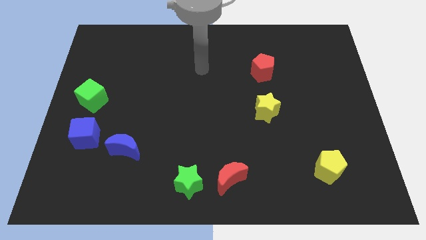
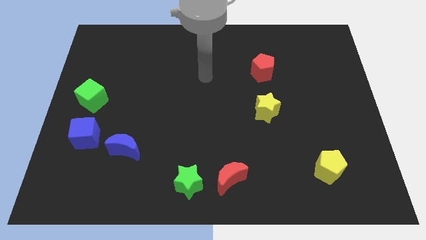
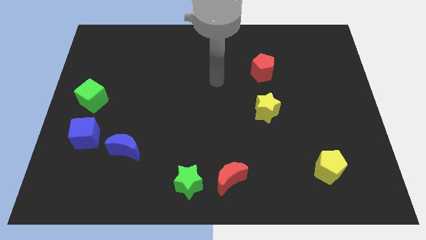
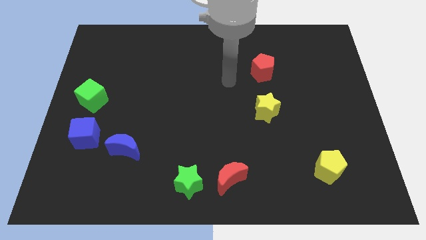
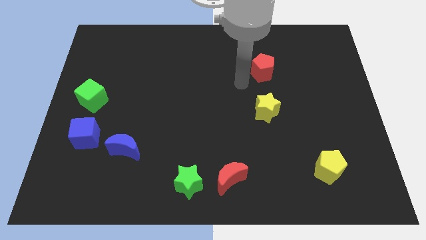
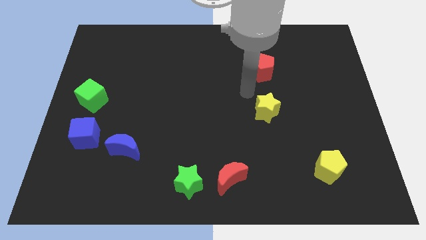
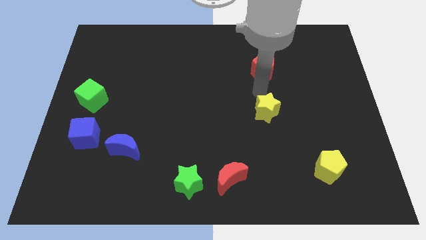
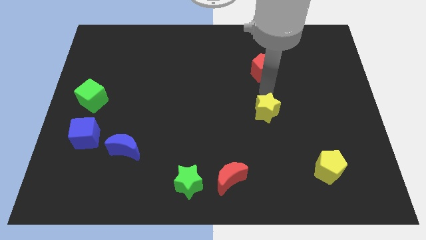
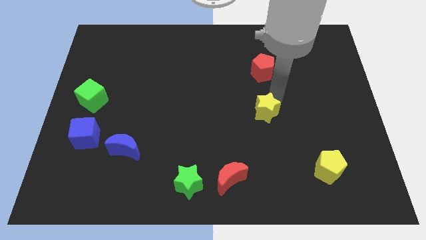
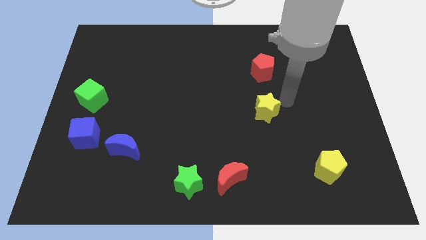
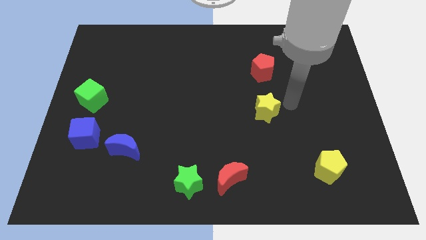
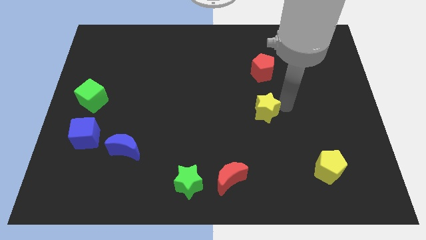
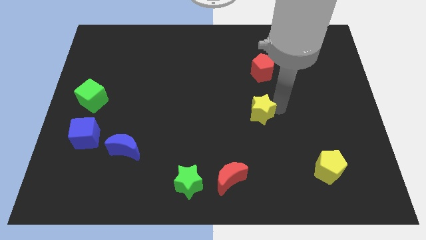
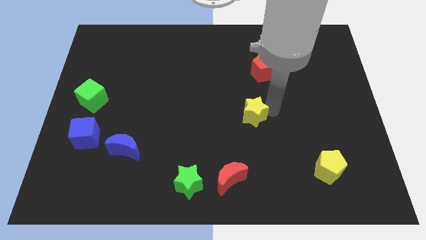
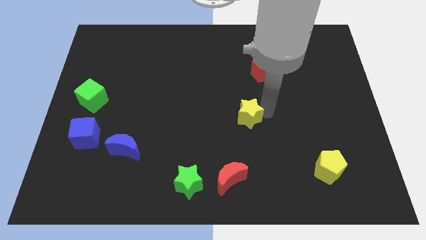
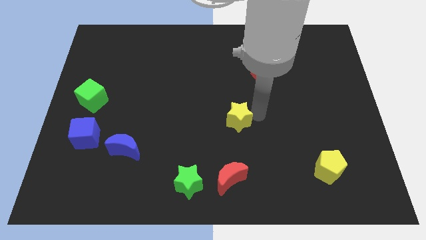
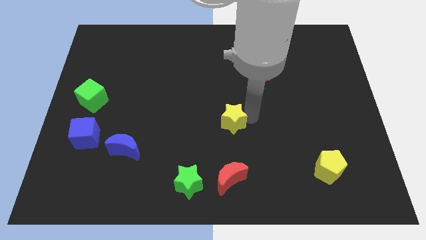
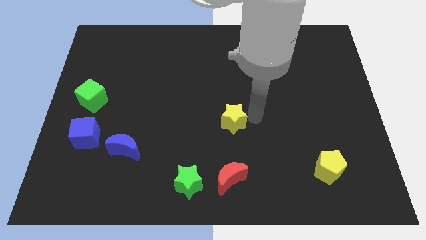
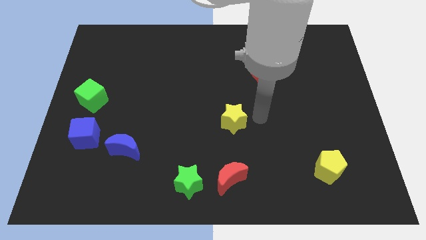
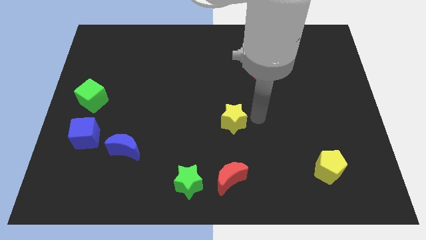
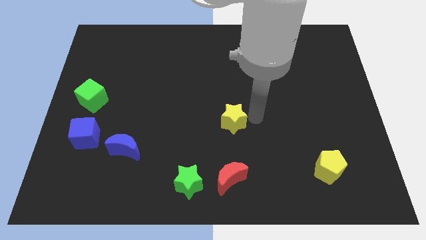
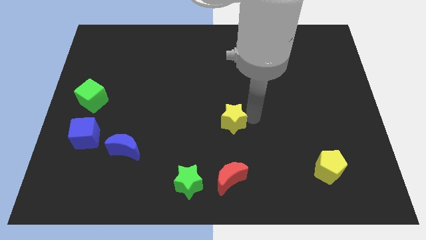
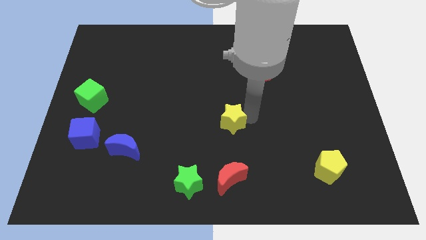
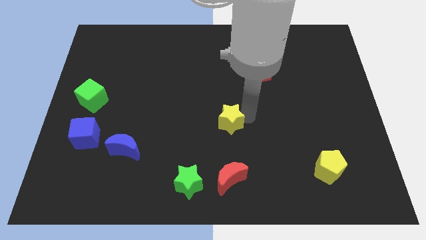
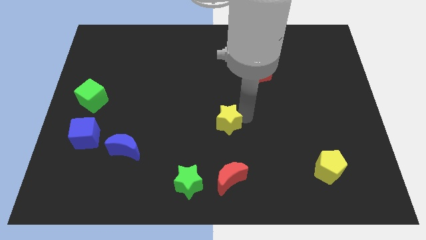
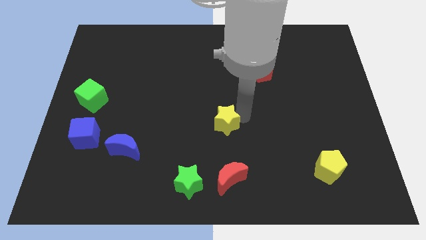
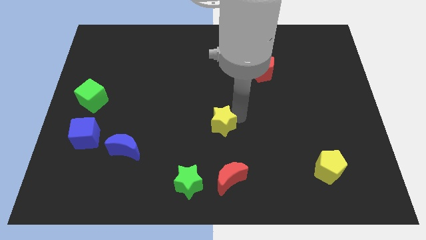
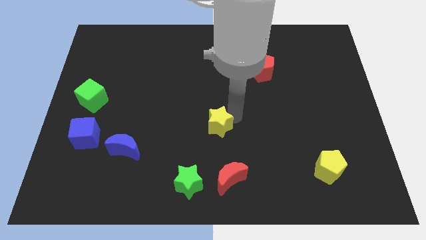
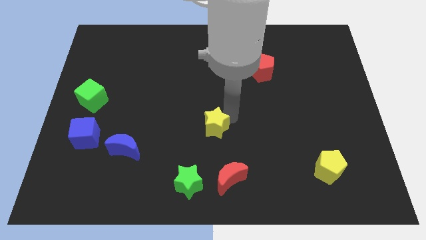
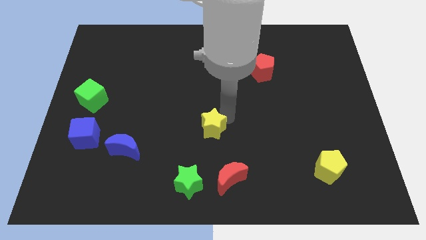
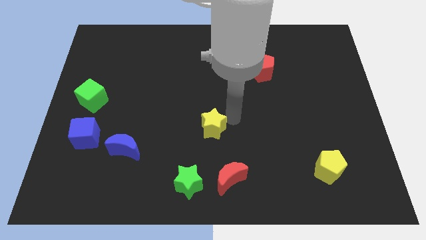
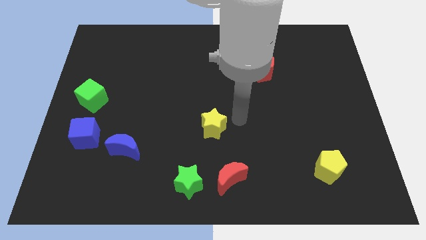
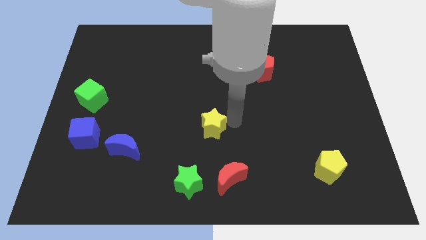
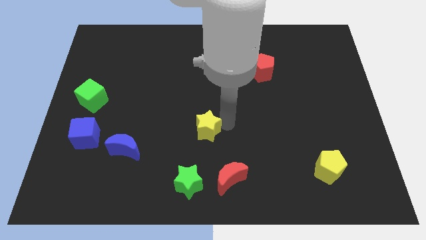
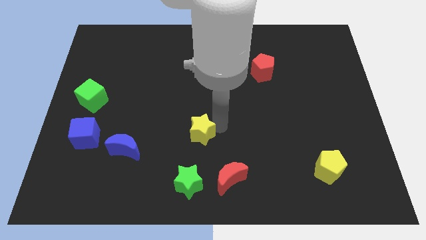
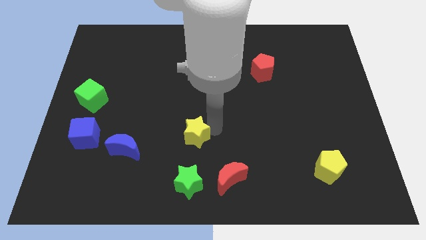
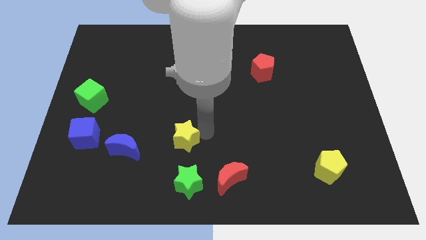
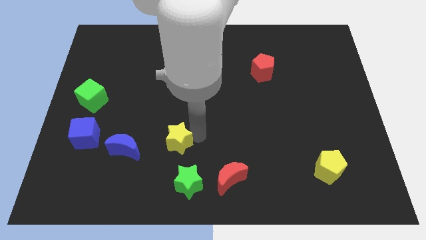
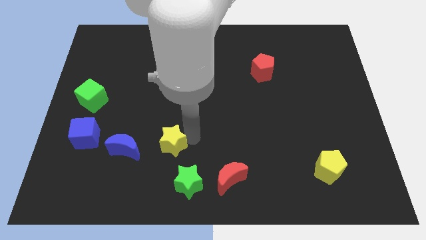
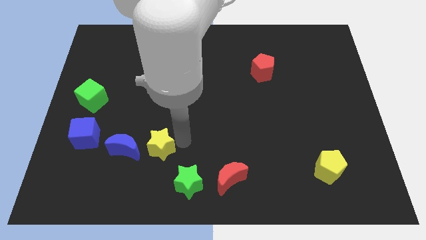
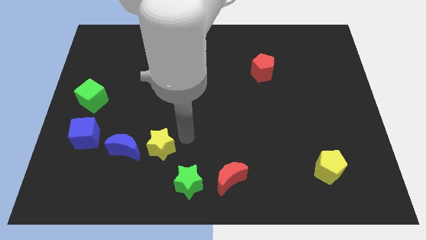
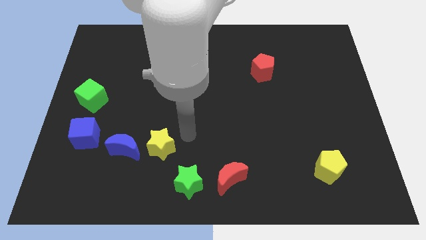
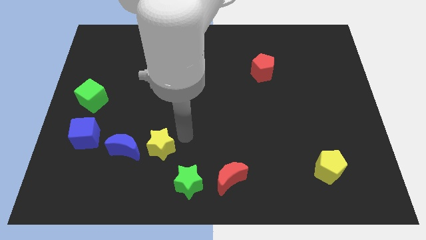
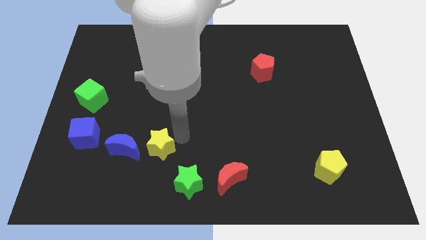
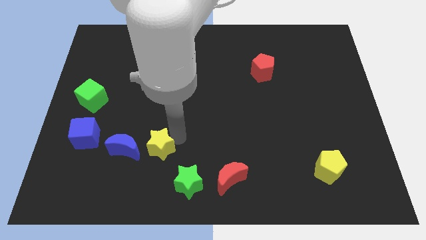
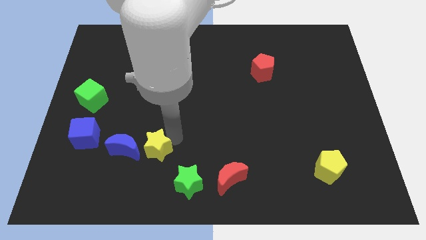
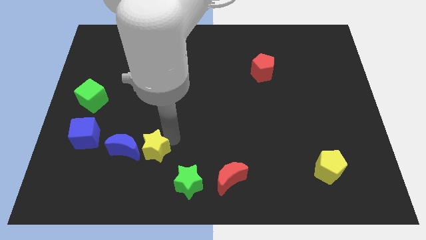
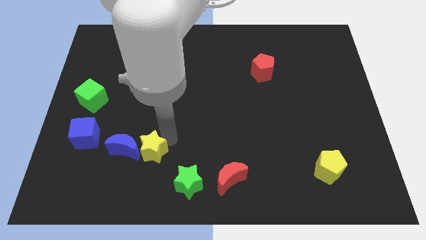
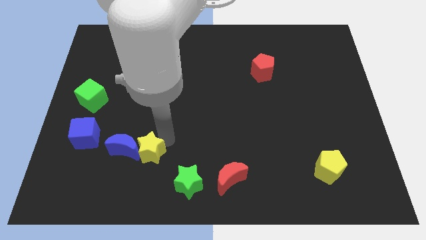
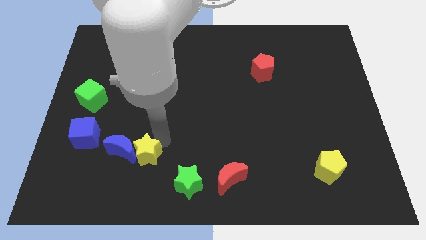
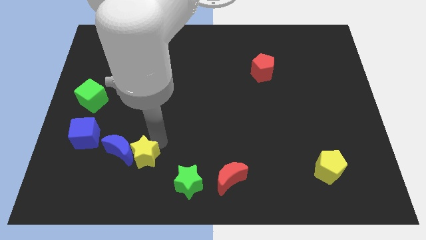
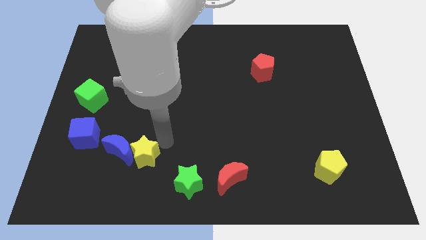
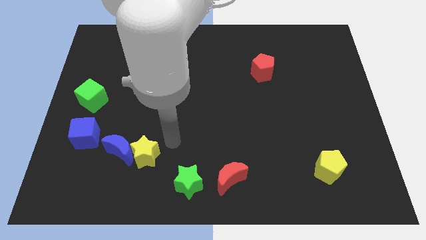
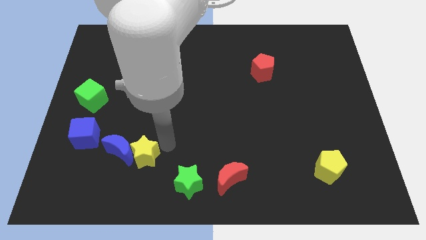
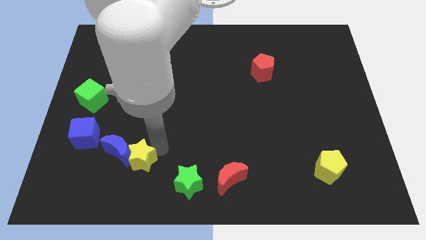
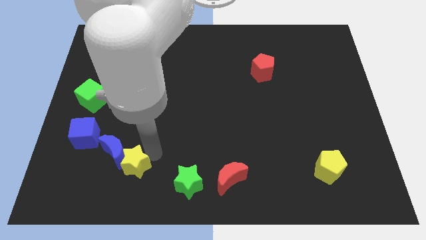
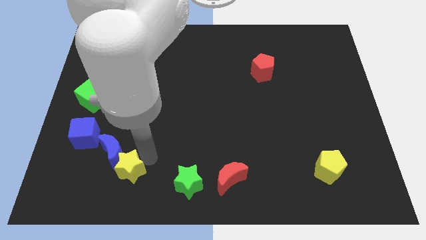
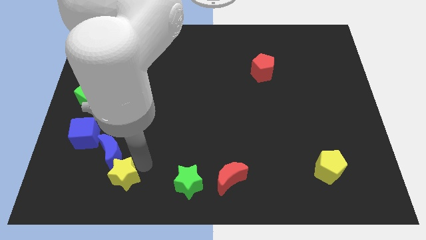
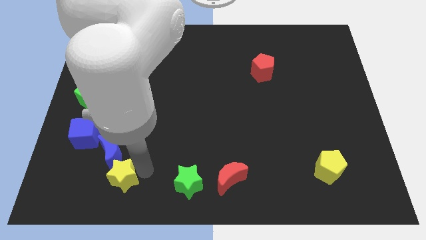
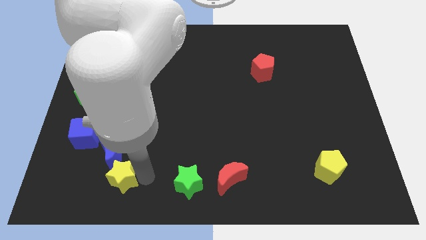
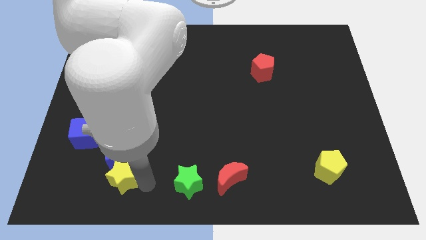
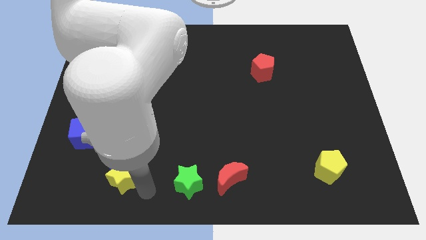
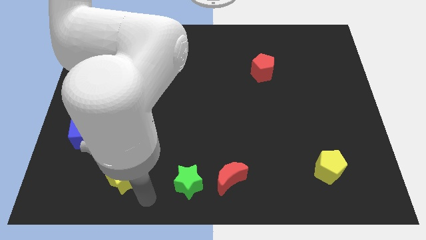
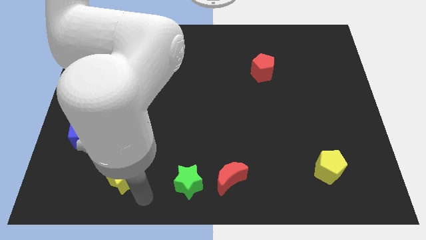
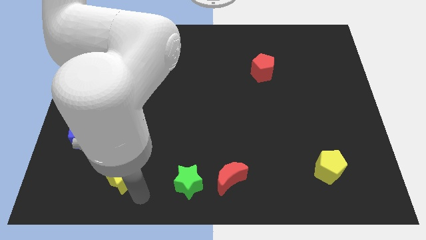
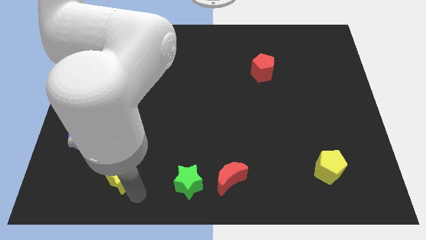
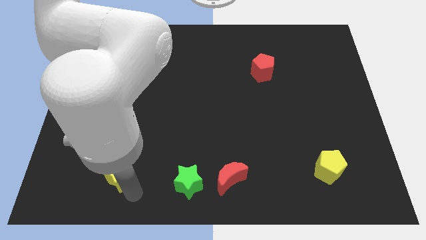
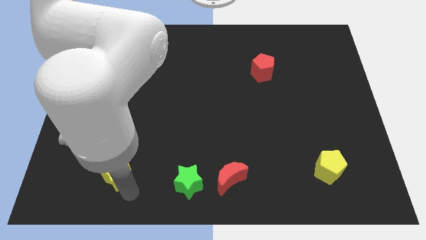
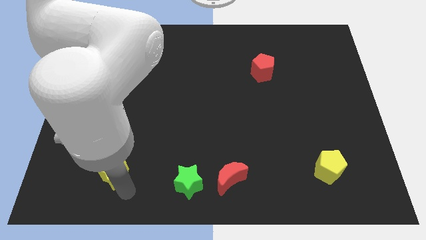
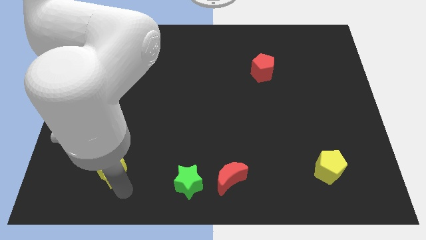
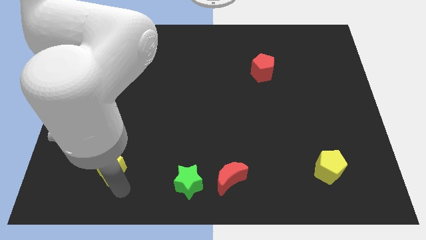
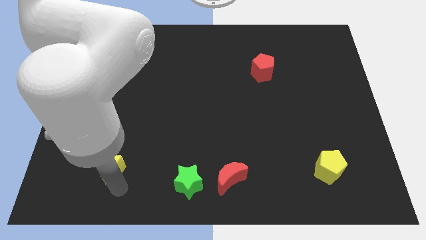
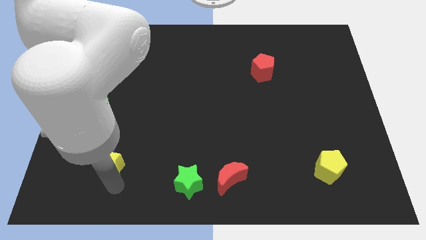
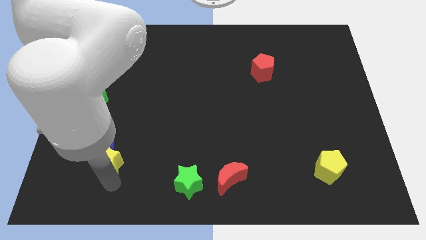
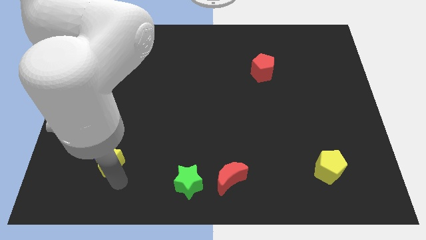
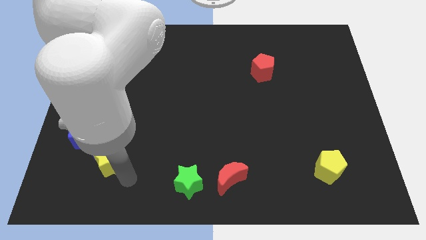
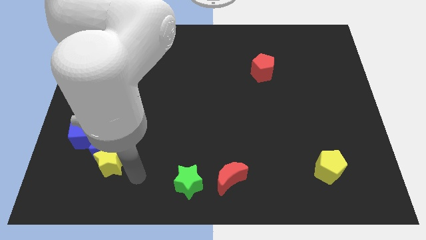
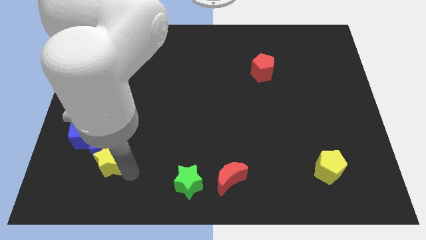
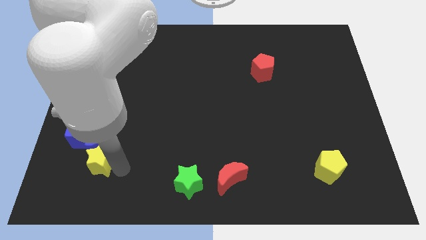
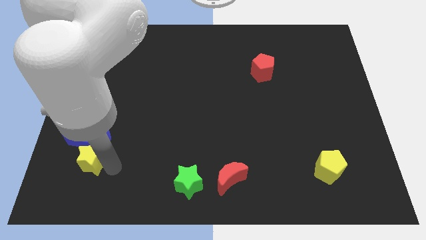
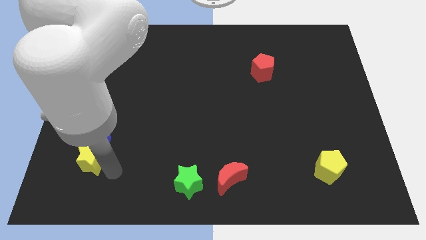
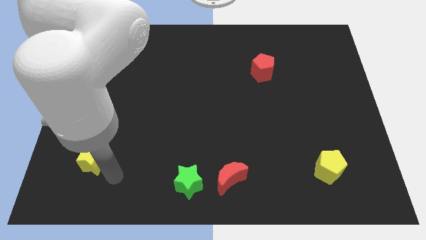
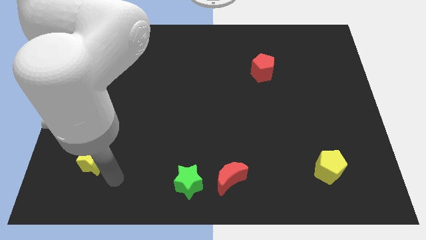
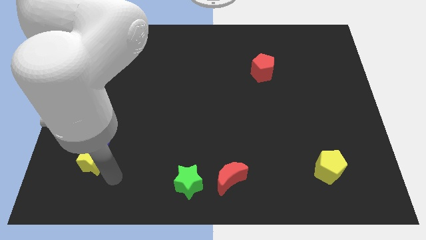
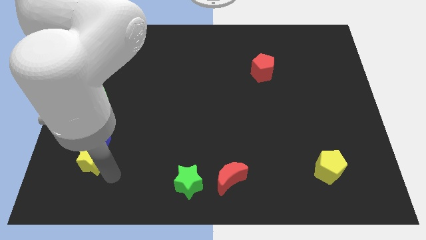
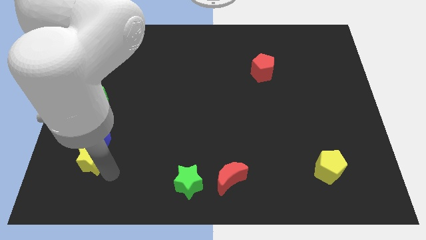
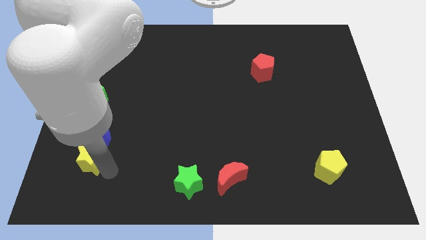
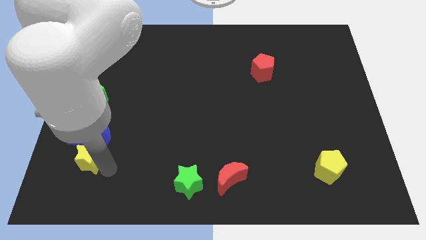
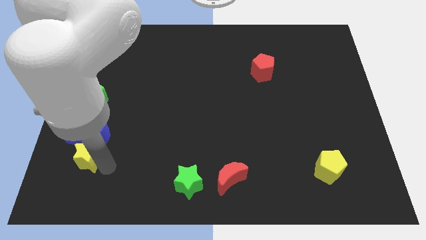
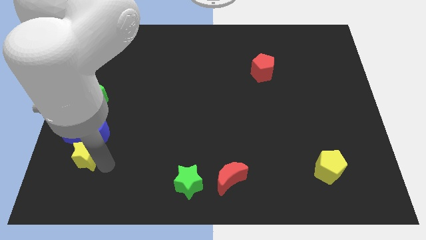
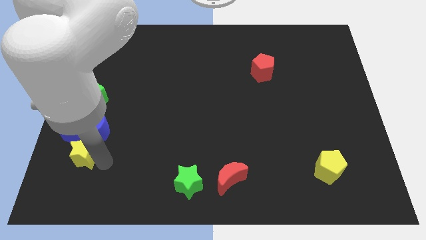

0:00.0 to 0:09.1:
put the yellow star to the bottom of the green cube
